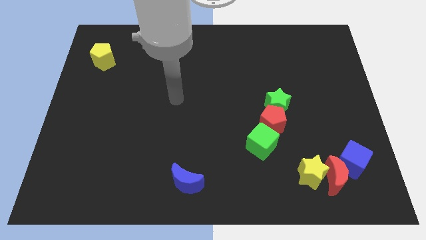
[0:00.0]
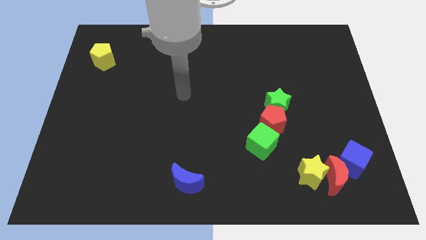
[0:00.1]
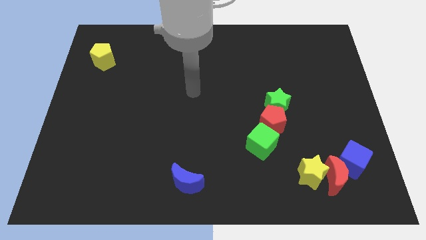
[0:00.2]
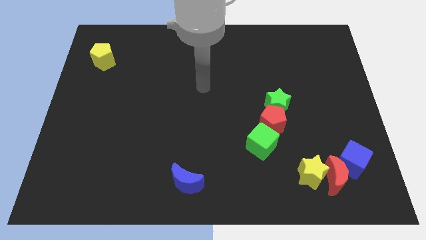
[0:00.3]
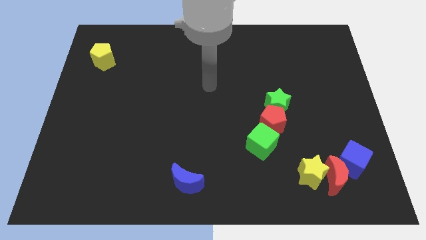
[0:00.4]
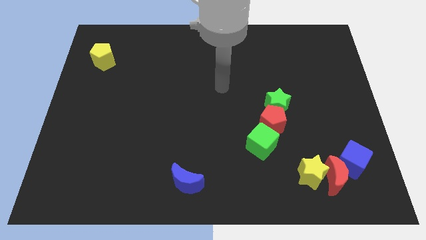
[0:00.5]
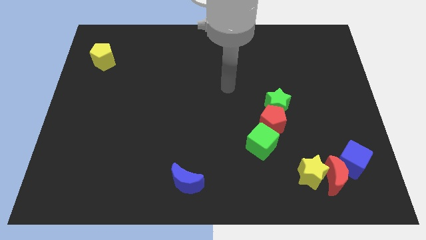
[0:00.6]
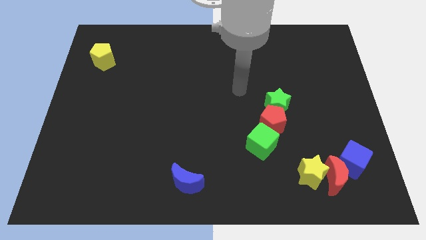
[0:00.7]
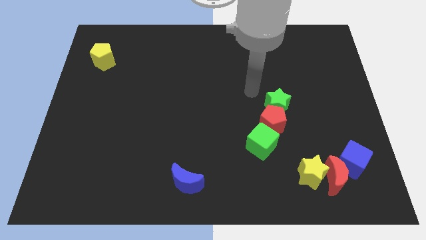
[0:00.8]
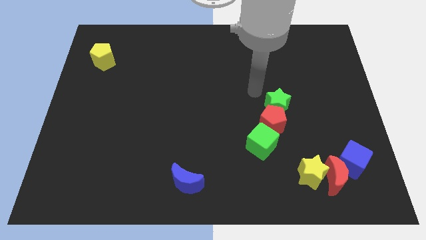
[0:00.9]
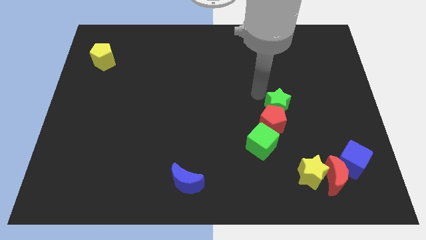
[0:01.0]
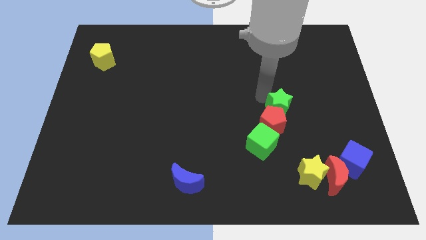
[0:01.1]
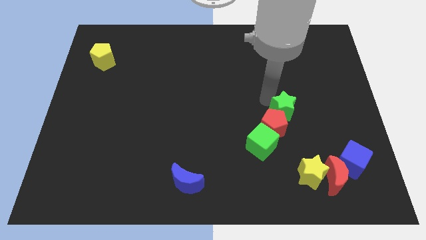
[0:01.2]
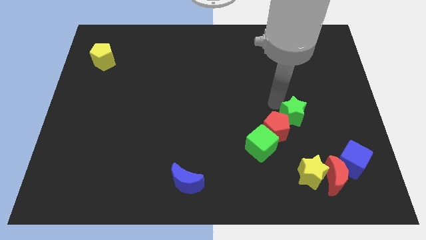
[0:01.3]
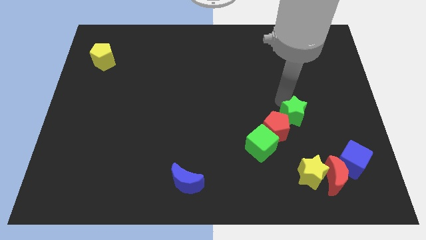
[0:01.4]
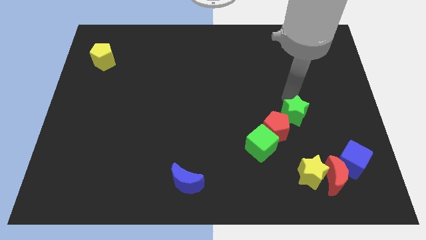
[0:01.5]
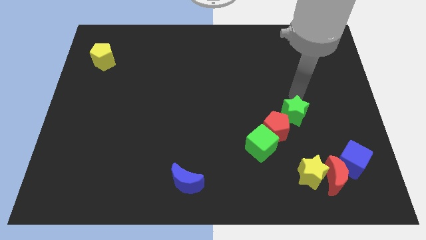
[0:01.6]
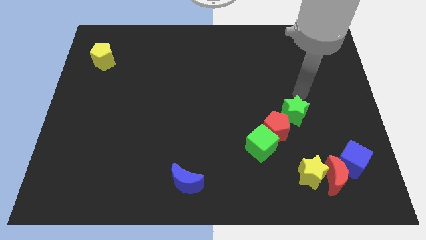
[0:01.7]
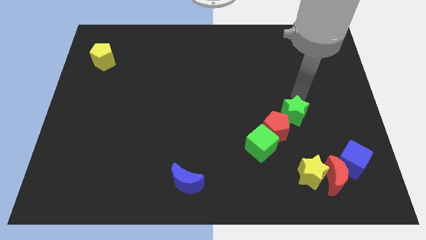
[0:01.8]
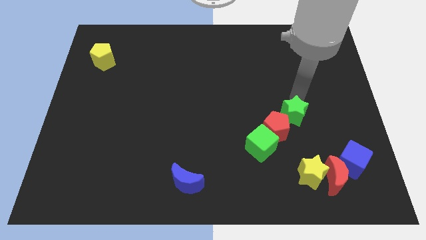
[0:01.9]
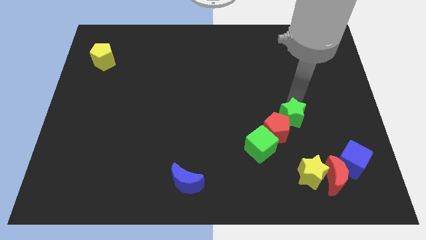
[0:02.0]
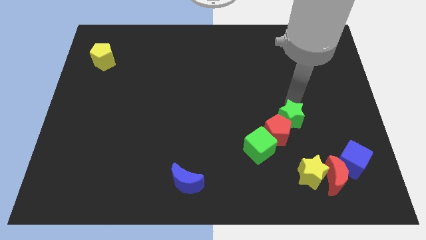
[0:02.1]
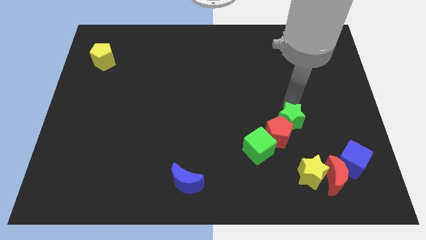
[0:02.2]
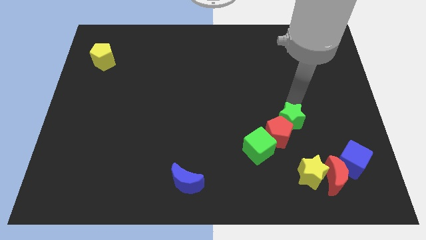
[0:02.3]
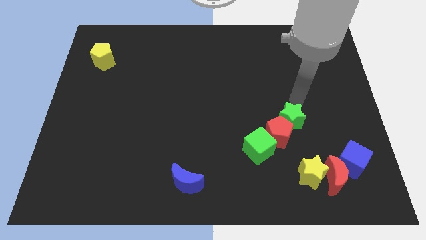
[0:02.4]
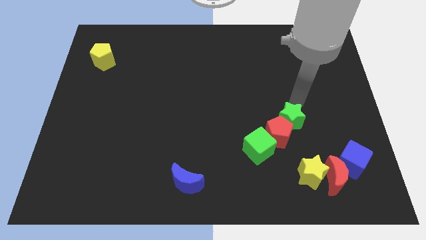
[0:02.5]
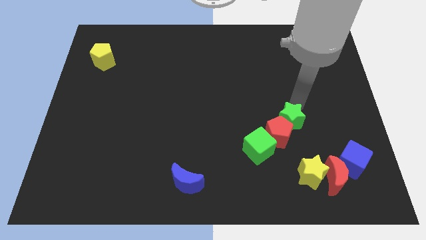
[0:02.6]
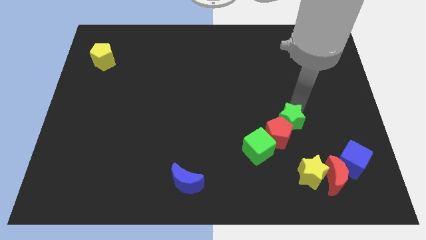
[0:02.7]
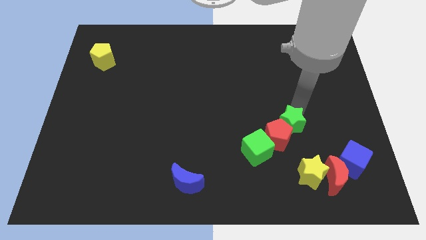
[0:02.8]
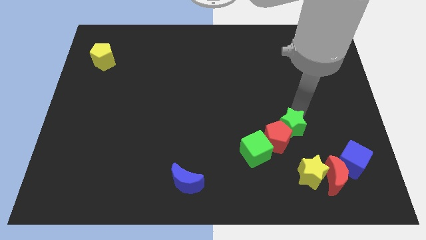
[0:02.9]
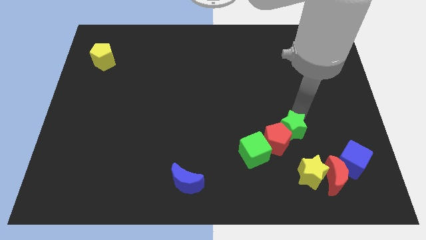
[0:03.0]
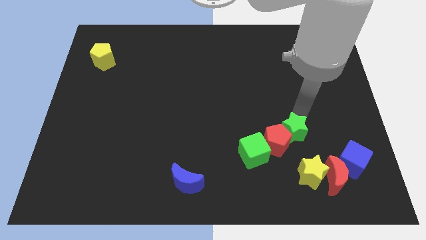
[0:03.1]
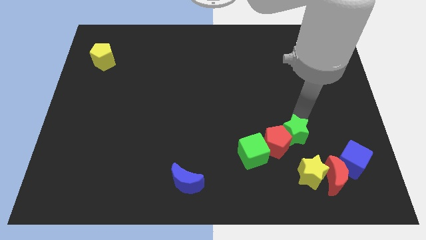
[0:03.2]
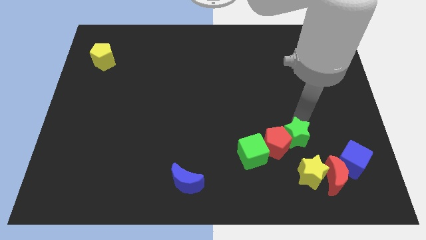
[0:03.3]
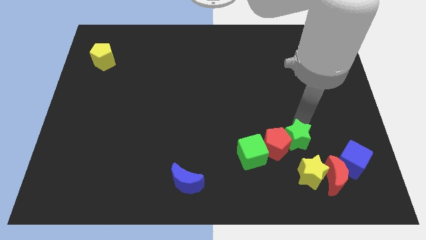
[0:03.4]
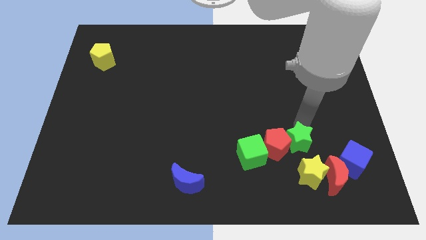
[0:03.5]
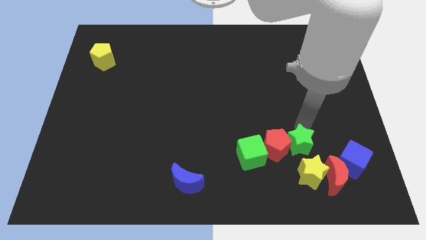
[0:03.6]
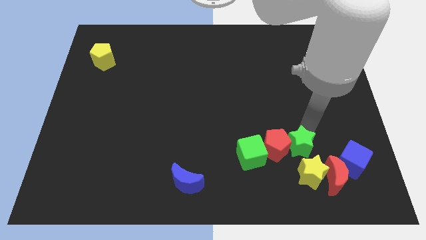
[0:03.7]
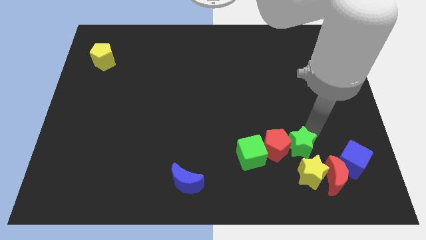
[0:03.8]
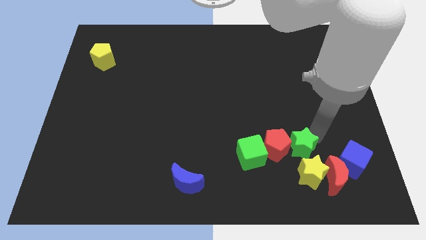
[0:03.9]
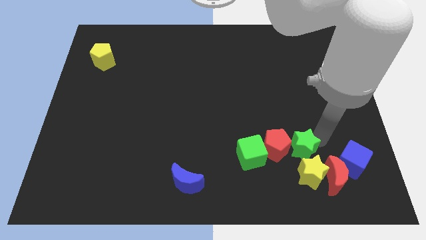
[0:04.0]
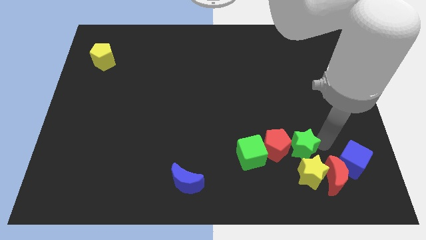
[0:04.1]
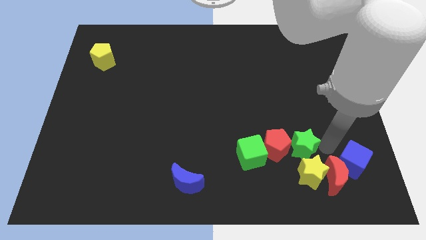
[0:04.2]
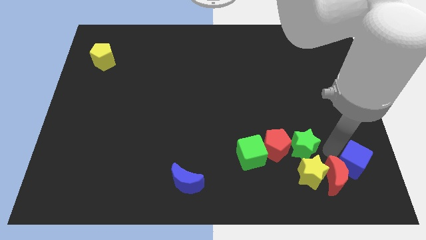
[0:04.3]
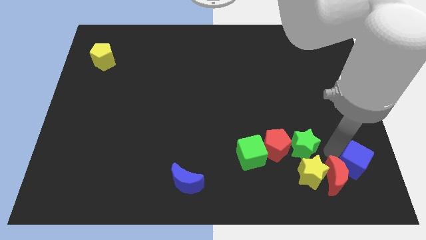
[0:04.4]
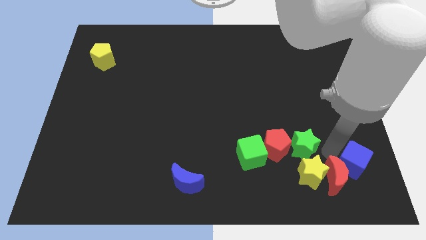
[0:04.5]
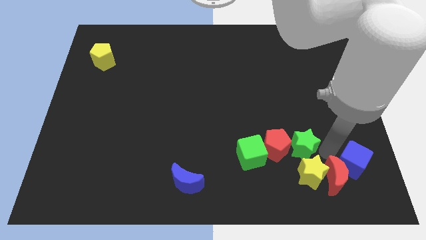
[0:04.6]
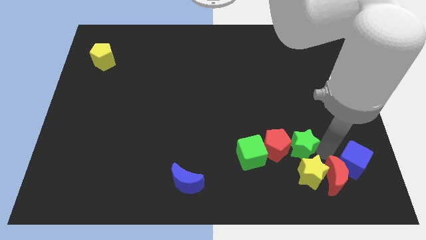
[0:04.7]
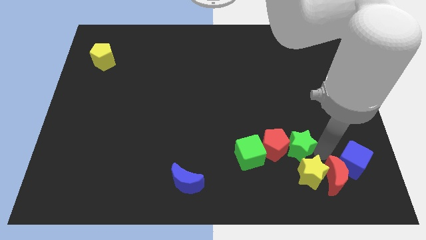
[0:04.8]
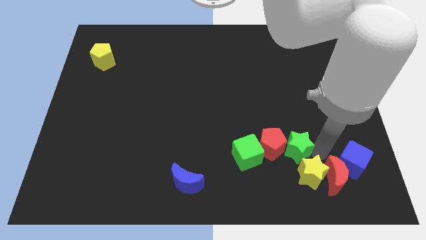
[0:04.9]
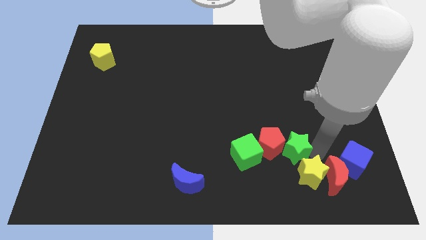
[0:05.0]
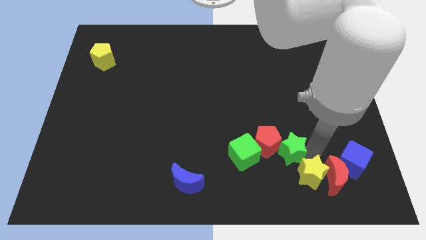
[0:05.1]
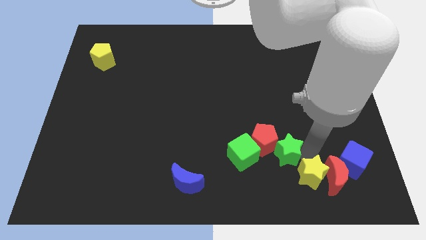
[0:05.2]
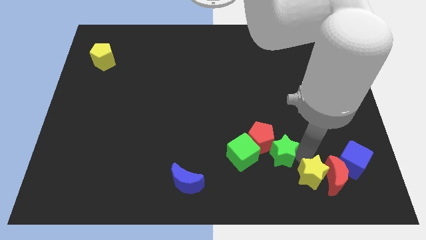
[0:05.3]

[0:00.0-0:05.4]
push the green star below the red pentagon
